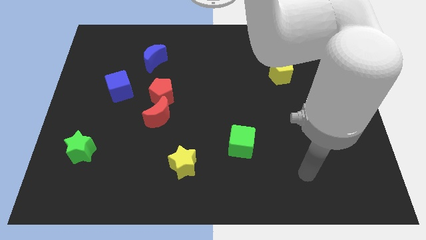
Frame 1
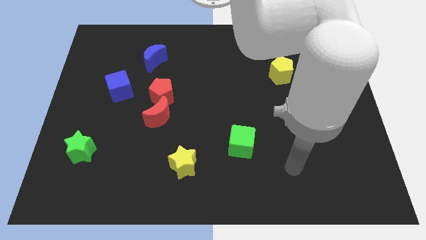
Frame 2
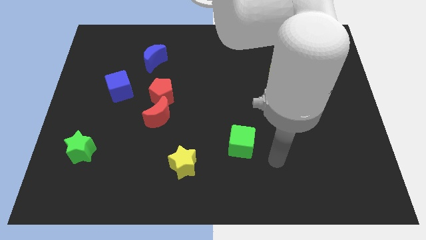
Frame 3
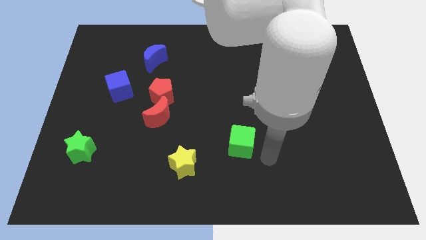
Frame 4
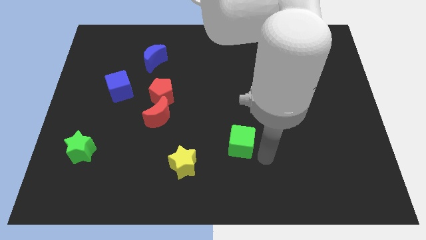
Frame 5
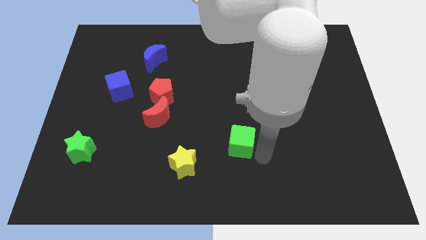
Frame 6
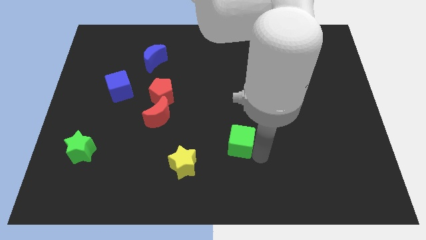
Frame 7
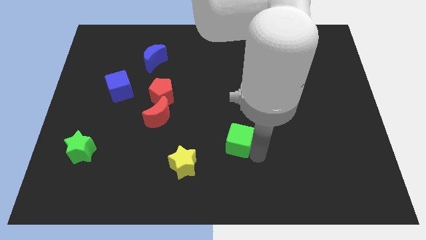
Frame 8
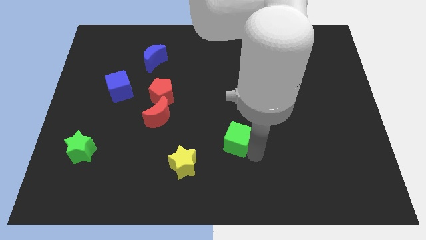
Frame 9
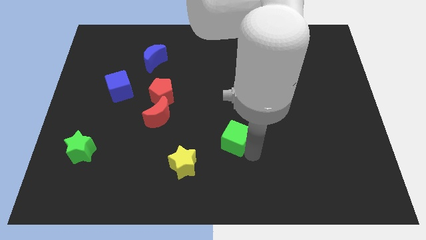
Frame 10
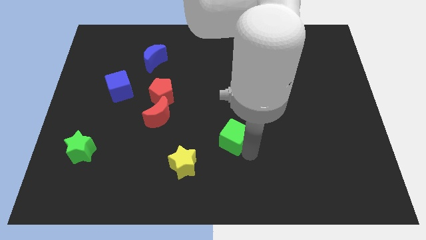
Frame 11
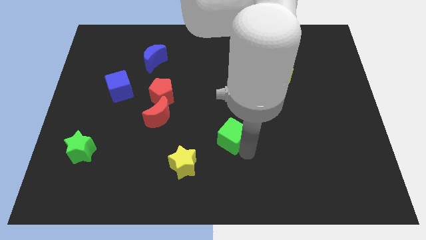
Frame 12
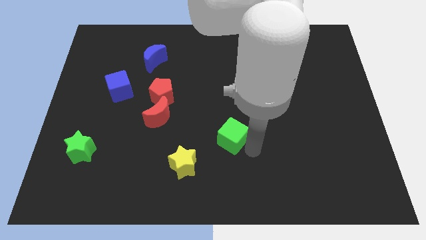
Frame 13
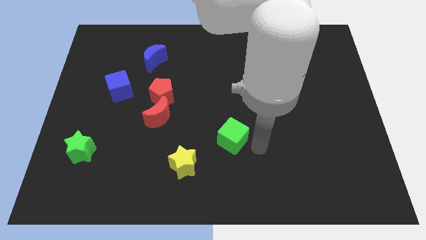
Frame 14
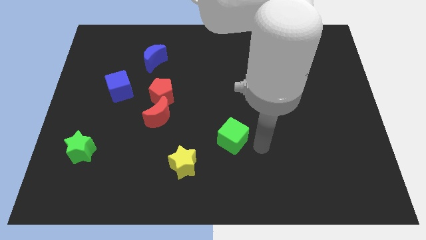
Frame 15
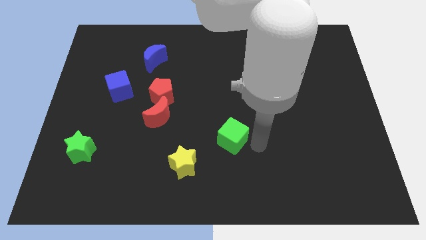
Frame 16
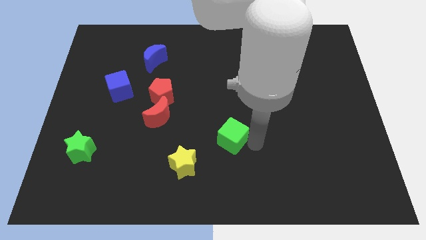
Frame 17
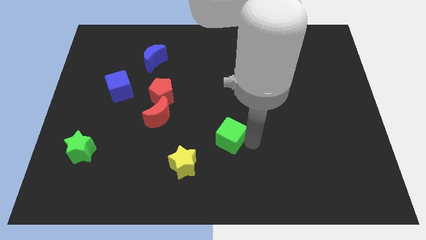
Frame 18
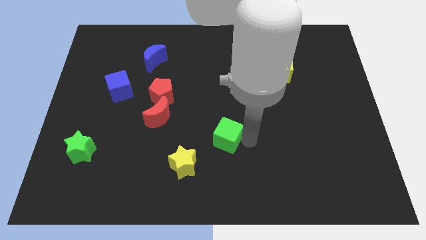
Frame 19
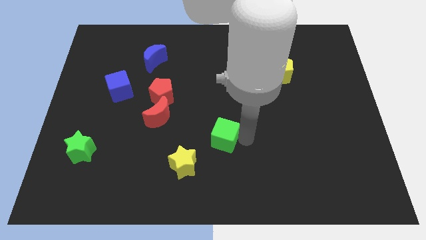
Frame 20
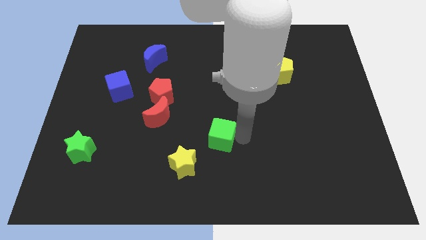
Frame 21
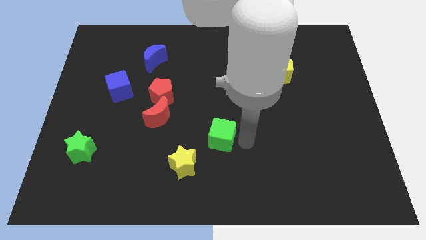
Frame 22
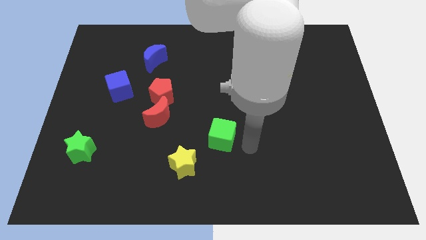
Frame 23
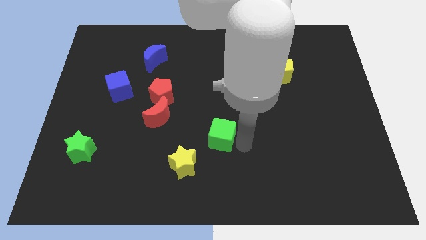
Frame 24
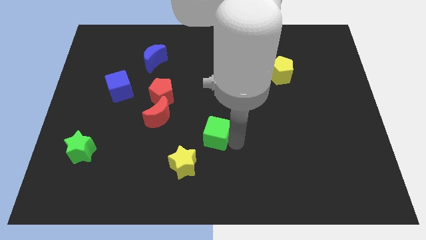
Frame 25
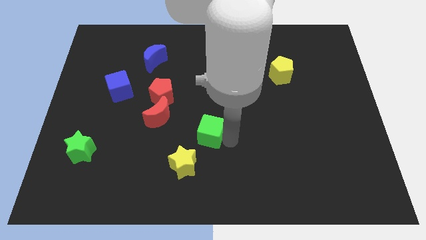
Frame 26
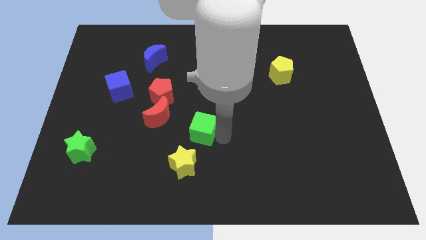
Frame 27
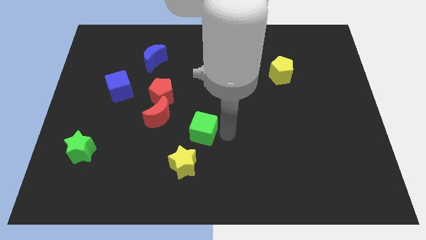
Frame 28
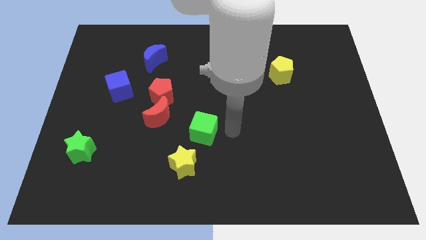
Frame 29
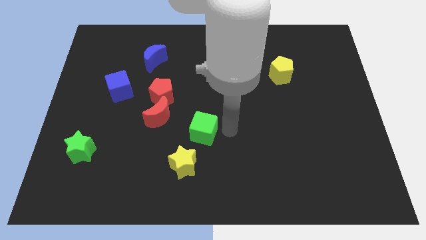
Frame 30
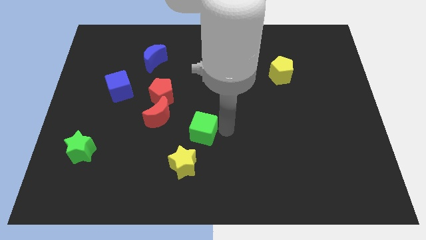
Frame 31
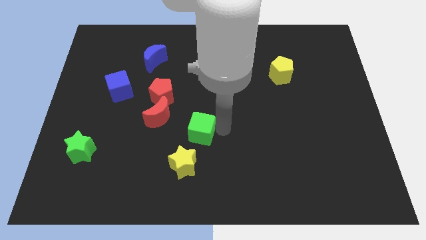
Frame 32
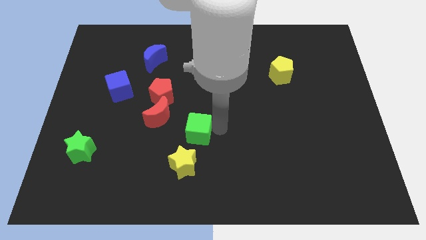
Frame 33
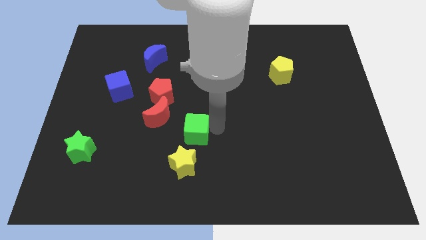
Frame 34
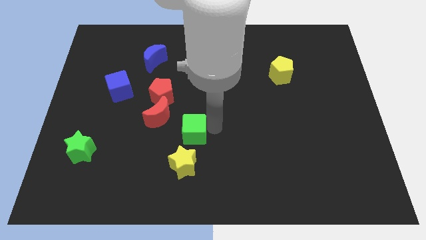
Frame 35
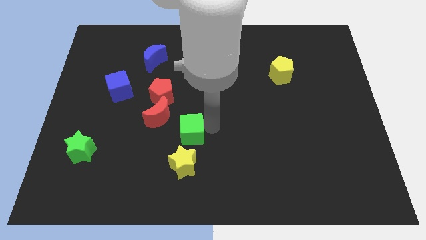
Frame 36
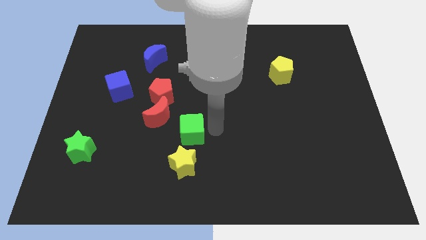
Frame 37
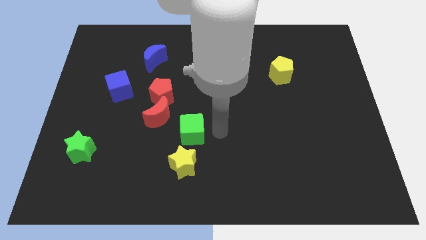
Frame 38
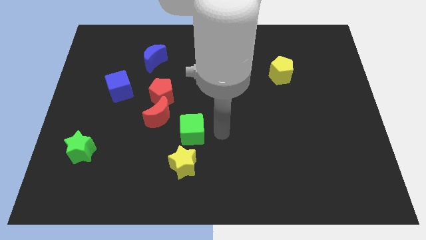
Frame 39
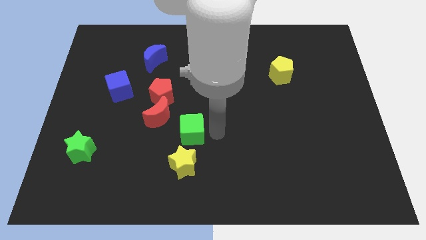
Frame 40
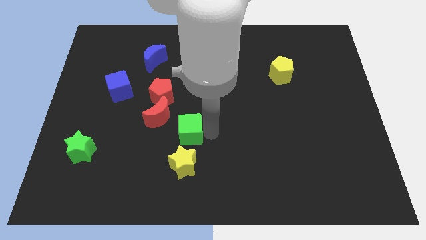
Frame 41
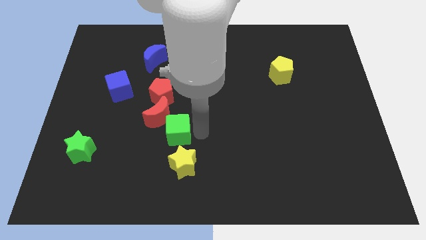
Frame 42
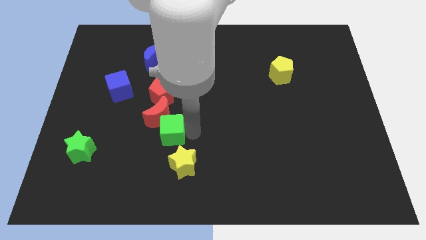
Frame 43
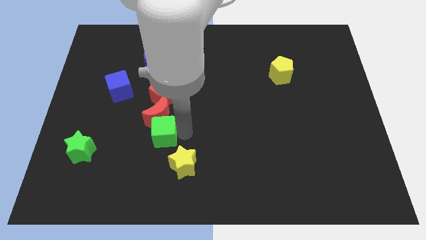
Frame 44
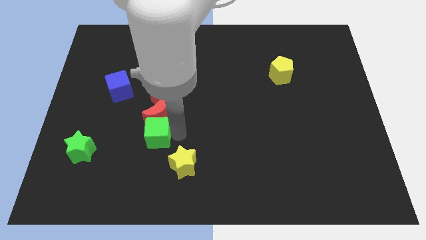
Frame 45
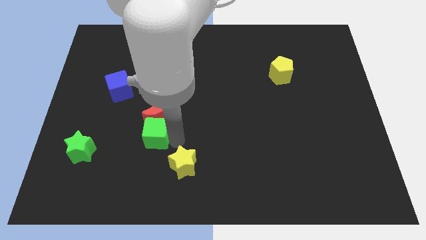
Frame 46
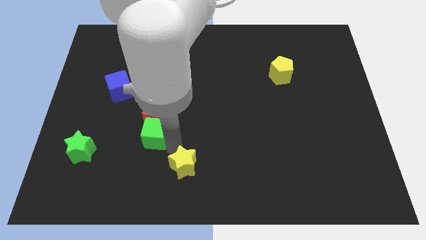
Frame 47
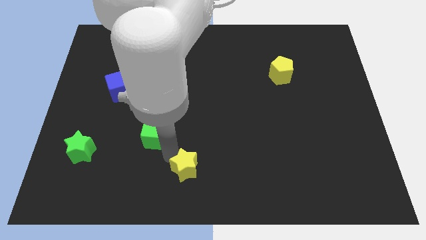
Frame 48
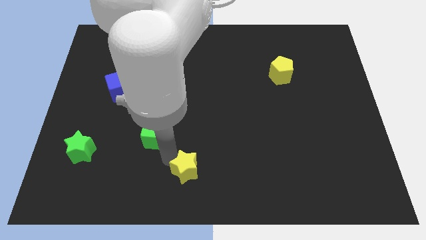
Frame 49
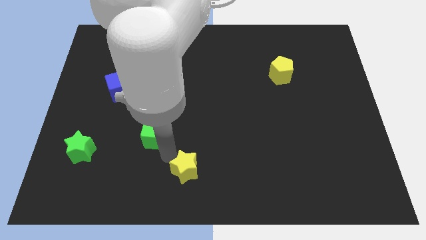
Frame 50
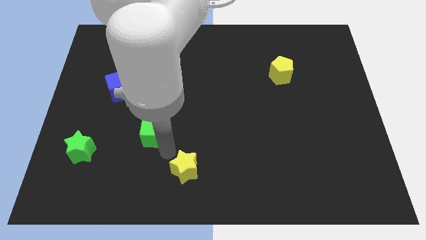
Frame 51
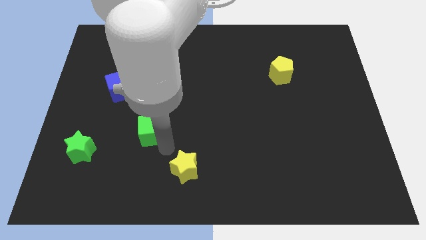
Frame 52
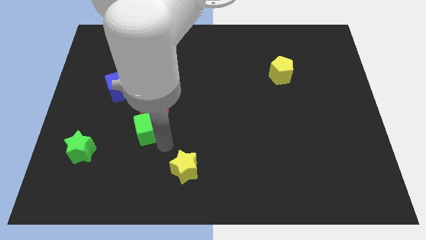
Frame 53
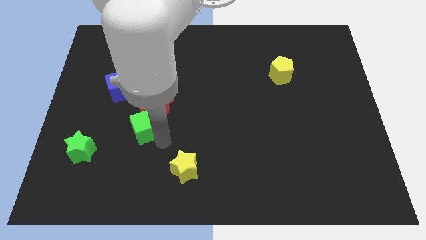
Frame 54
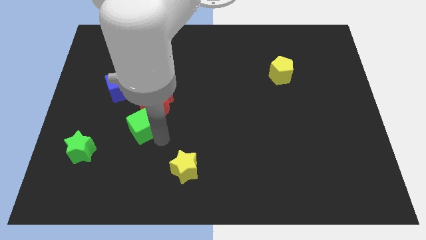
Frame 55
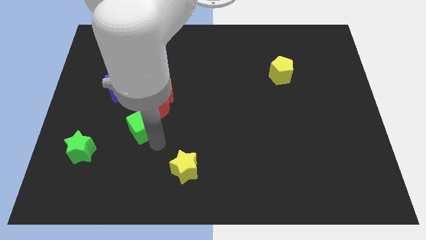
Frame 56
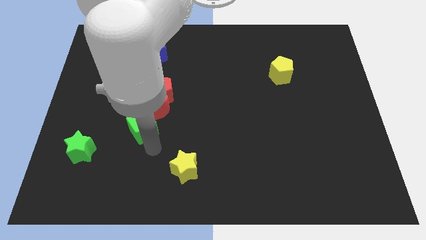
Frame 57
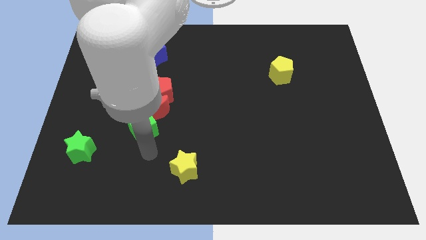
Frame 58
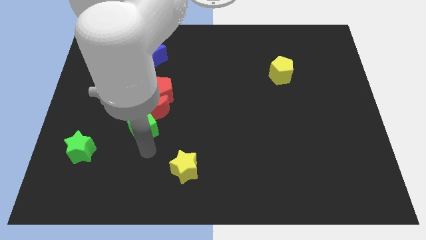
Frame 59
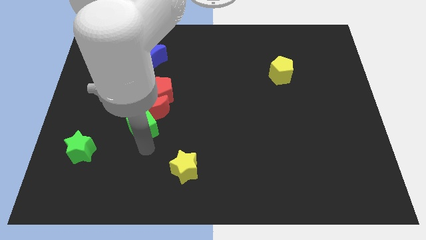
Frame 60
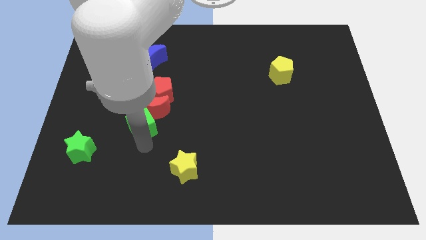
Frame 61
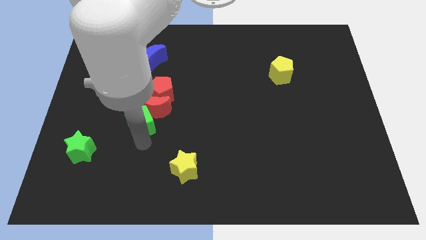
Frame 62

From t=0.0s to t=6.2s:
move the green cube to the bottom right side of the blue cube
